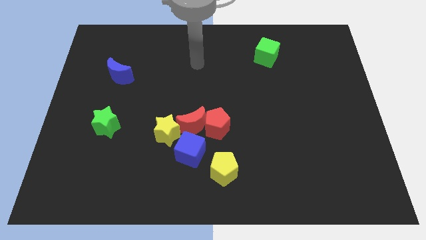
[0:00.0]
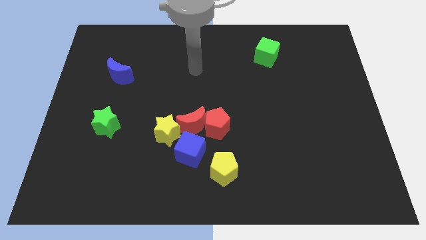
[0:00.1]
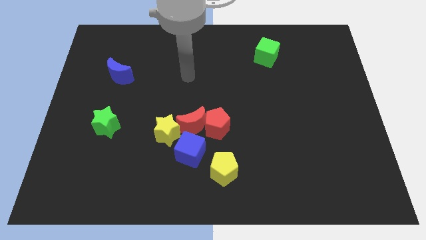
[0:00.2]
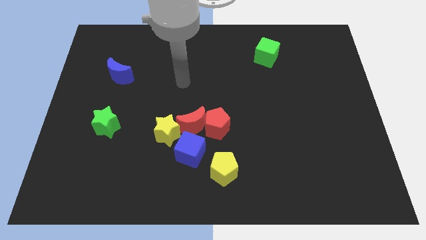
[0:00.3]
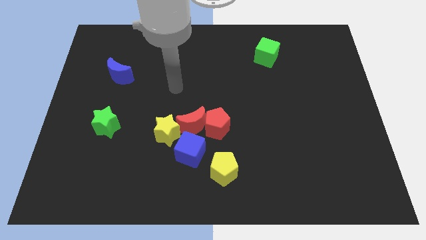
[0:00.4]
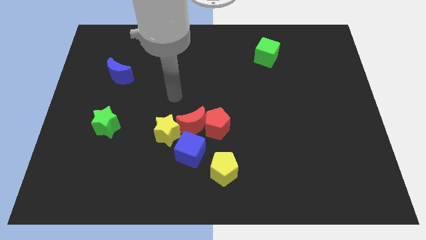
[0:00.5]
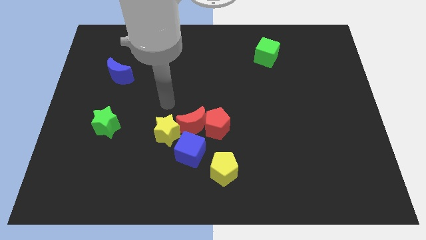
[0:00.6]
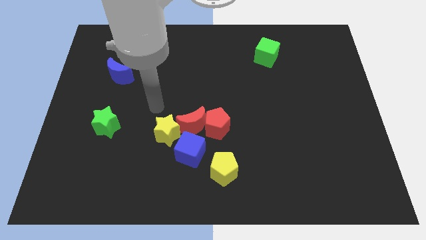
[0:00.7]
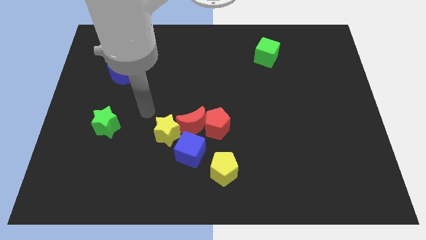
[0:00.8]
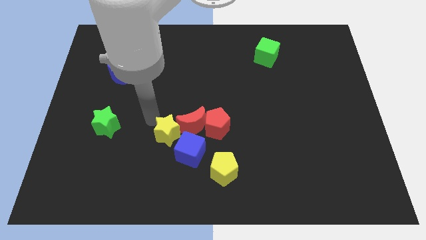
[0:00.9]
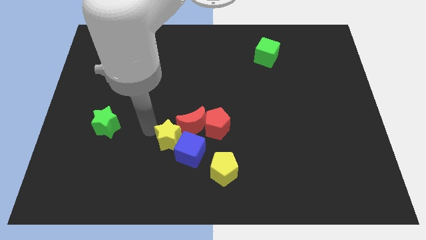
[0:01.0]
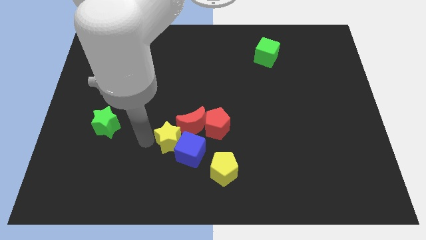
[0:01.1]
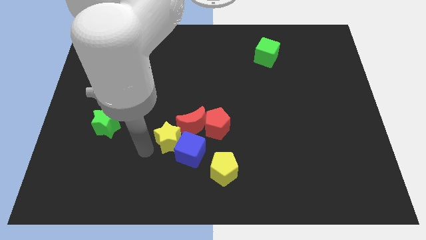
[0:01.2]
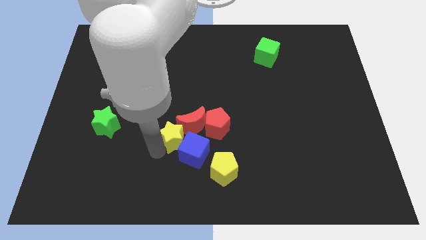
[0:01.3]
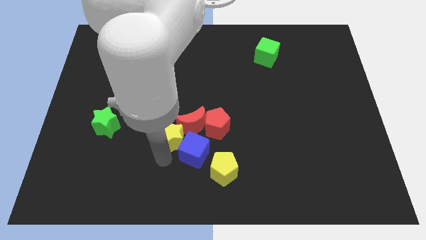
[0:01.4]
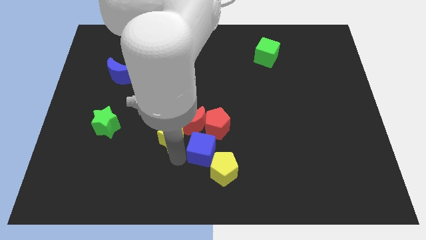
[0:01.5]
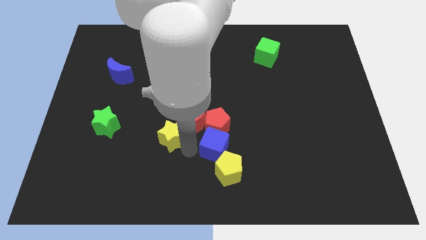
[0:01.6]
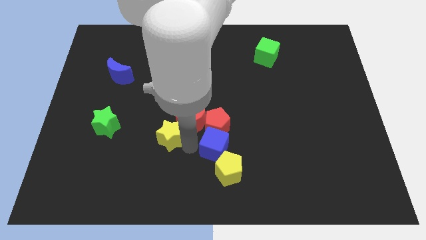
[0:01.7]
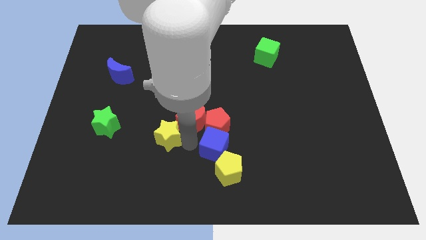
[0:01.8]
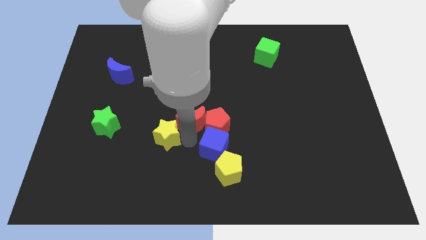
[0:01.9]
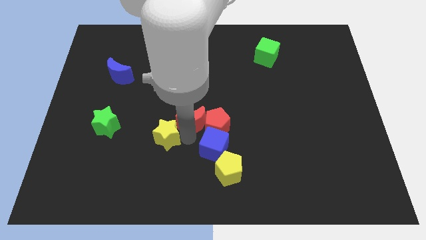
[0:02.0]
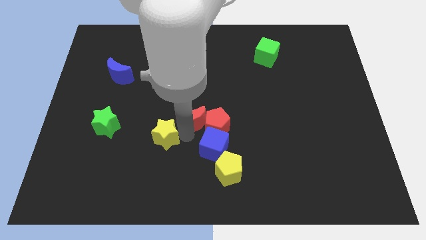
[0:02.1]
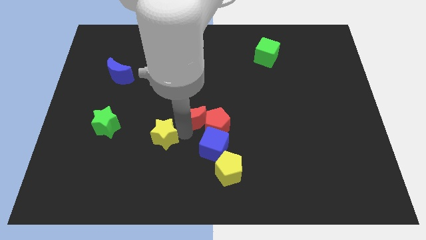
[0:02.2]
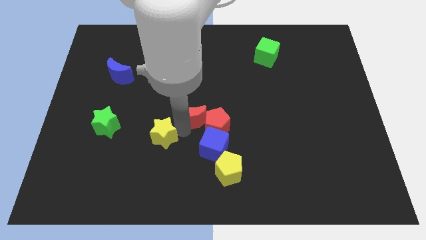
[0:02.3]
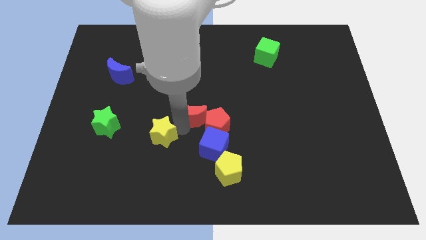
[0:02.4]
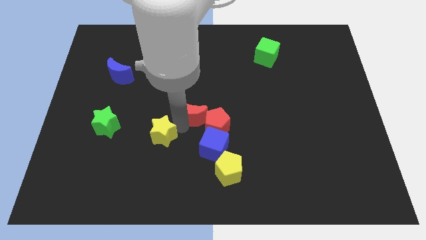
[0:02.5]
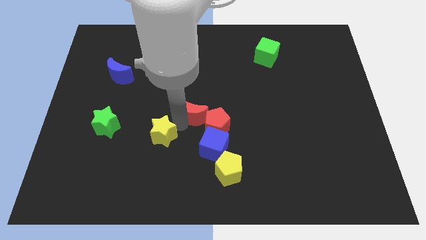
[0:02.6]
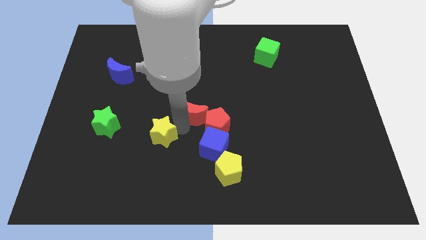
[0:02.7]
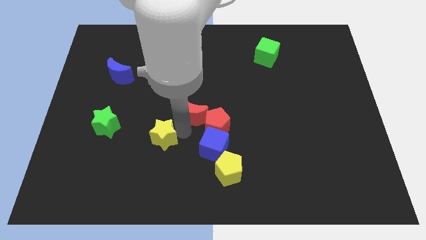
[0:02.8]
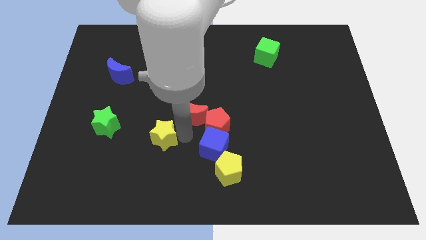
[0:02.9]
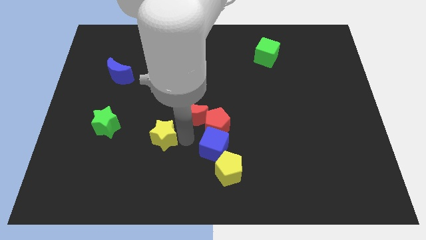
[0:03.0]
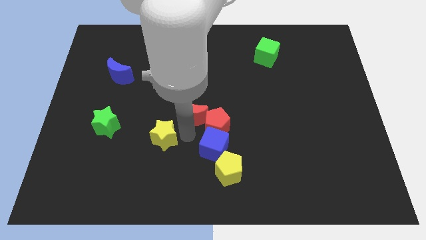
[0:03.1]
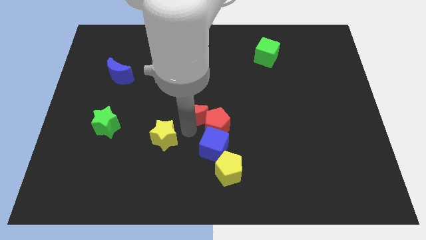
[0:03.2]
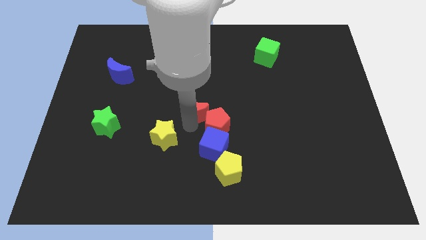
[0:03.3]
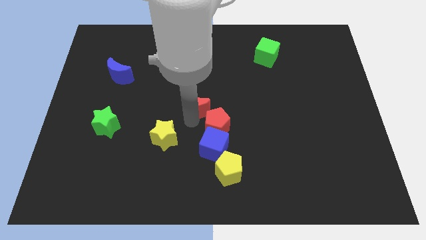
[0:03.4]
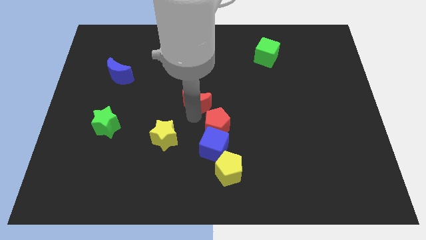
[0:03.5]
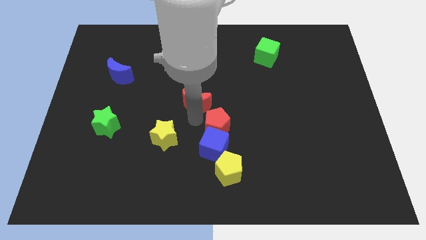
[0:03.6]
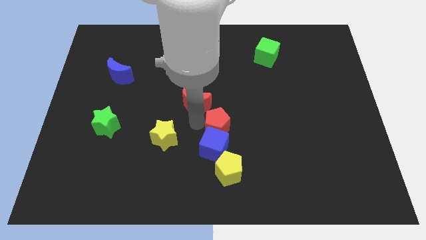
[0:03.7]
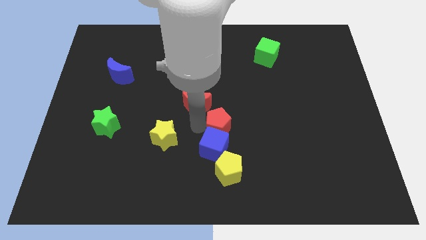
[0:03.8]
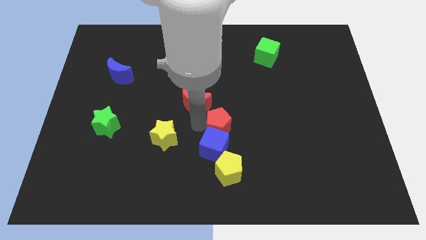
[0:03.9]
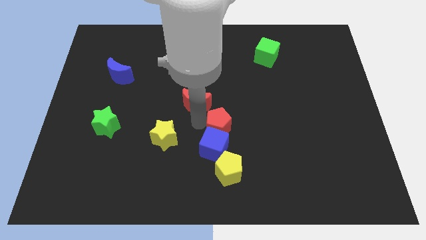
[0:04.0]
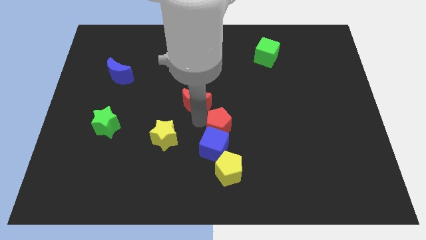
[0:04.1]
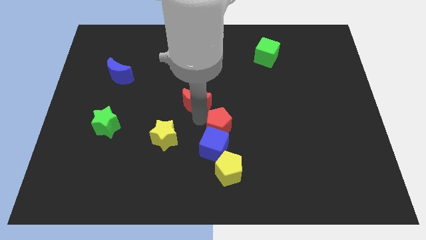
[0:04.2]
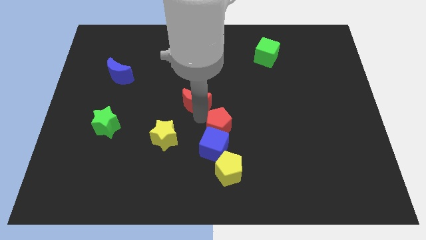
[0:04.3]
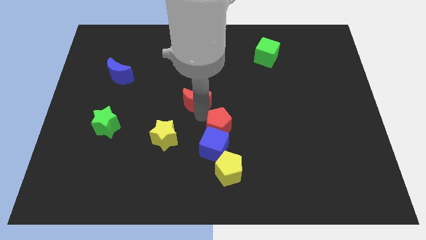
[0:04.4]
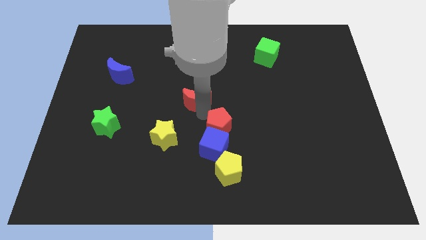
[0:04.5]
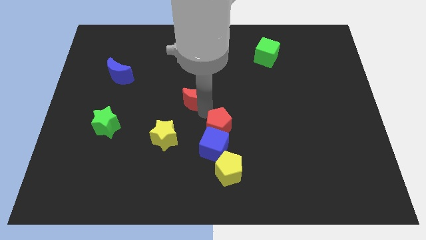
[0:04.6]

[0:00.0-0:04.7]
pull the red moon apart from the group of blocks

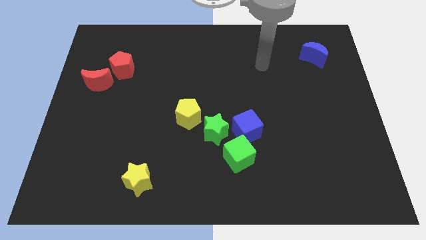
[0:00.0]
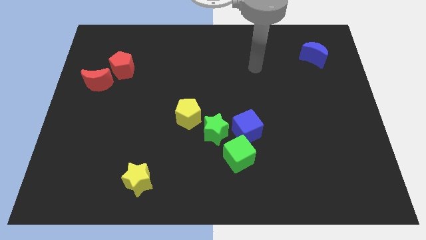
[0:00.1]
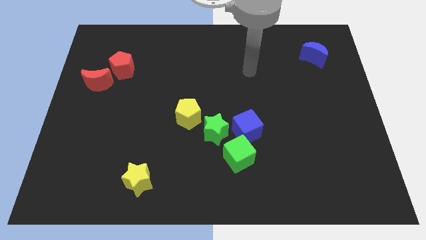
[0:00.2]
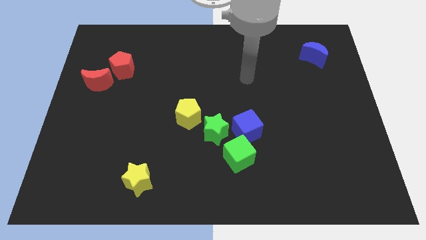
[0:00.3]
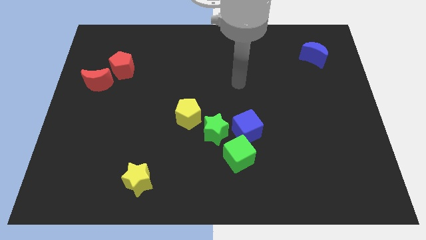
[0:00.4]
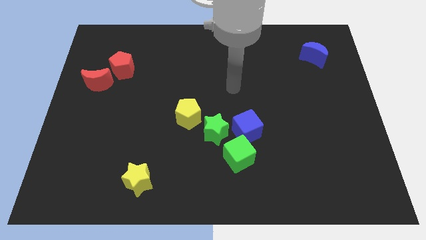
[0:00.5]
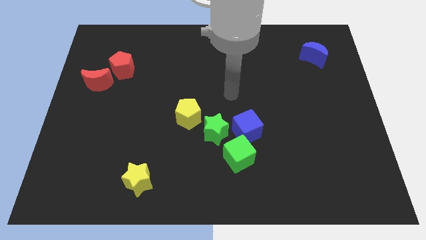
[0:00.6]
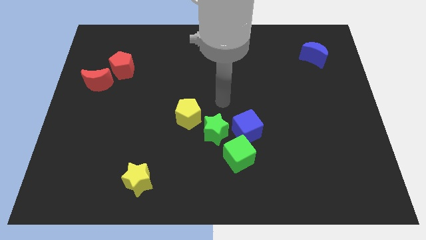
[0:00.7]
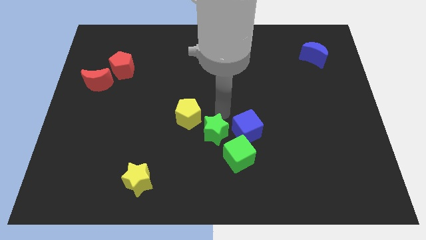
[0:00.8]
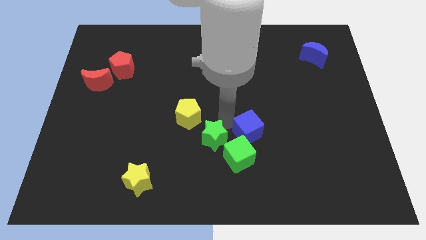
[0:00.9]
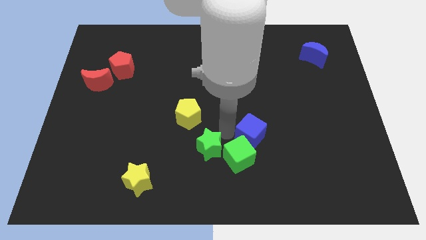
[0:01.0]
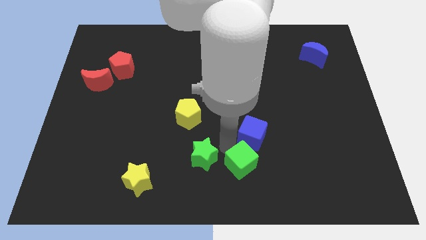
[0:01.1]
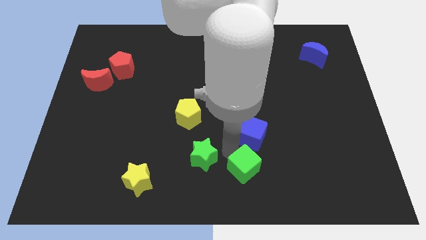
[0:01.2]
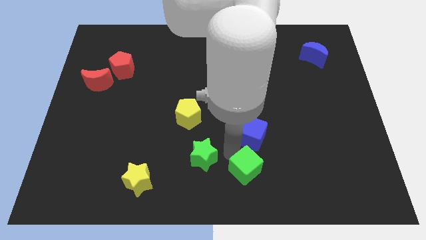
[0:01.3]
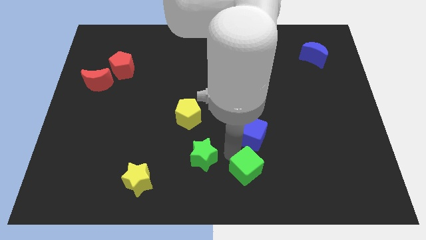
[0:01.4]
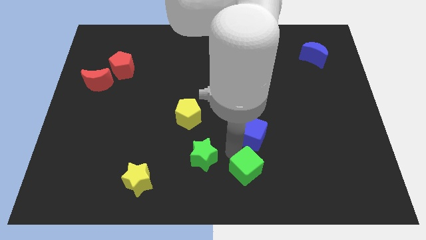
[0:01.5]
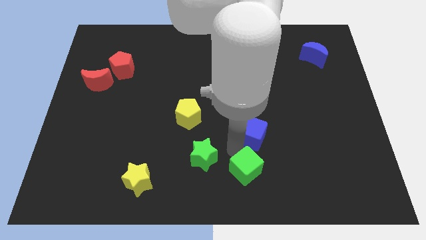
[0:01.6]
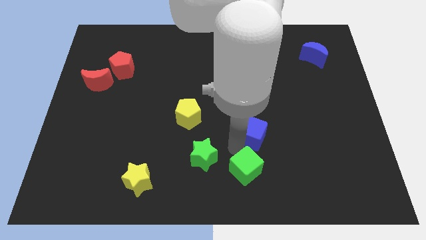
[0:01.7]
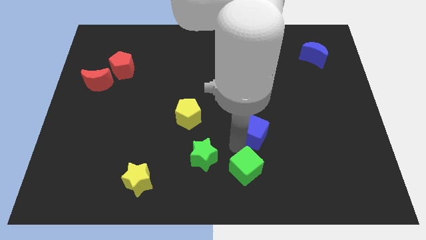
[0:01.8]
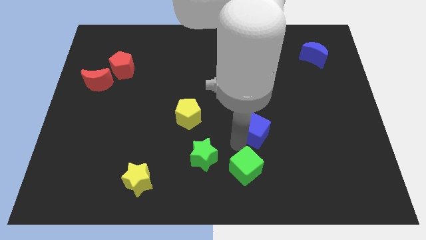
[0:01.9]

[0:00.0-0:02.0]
move the blue cube away from the green cube and green star

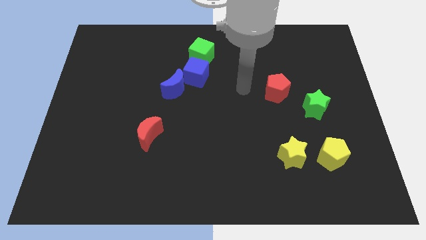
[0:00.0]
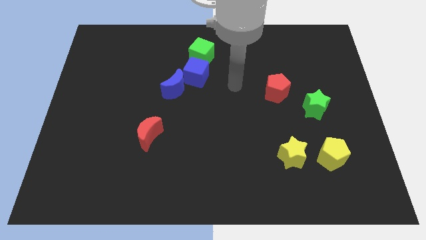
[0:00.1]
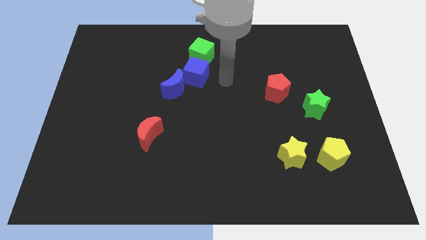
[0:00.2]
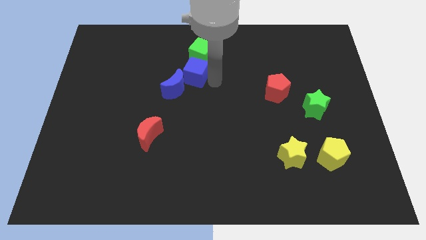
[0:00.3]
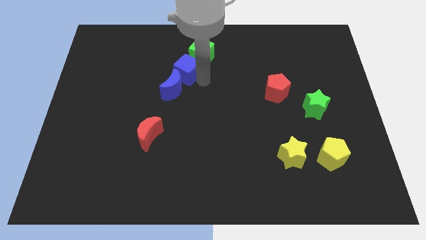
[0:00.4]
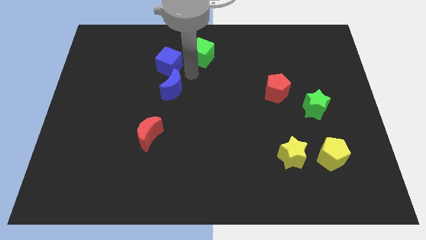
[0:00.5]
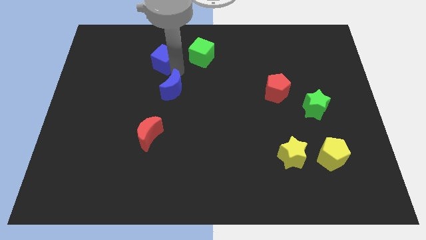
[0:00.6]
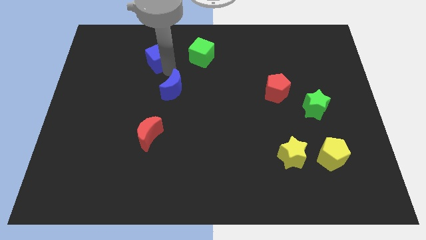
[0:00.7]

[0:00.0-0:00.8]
move the blue moon away from the blue cube

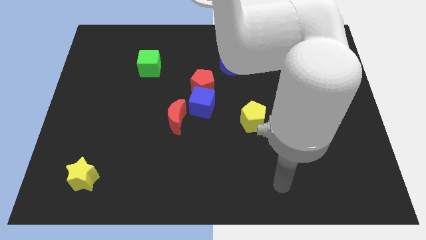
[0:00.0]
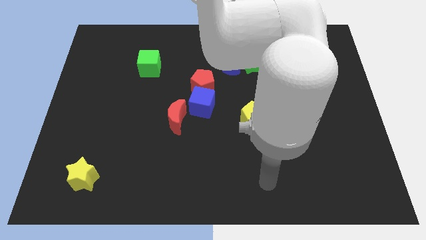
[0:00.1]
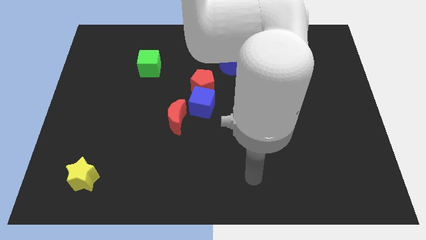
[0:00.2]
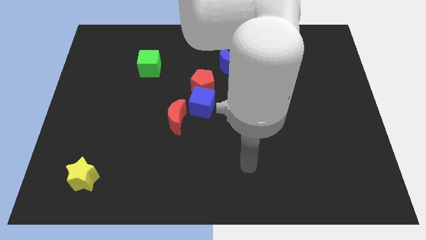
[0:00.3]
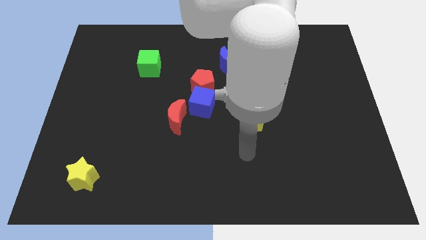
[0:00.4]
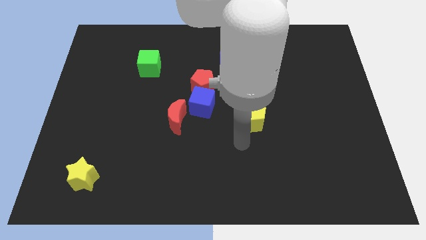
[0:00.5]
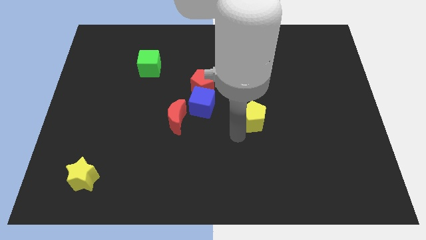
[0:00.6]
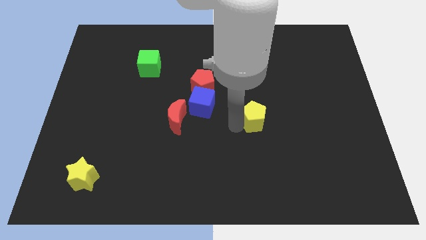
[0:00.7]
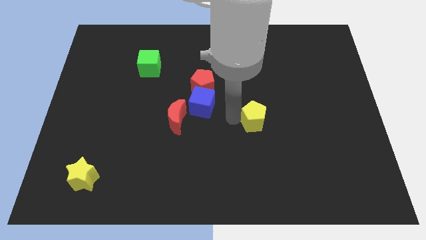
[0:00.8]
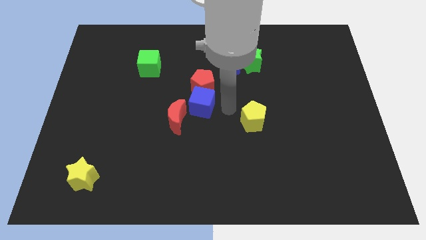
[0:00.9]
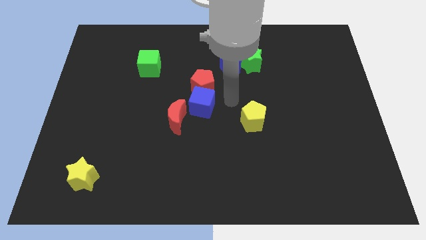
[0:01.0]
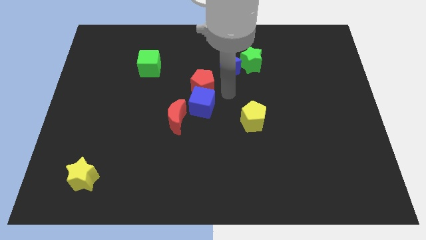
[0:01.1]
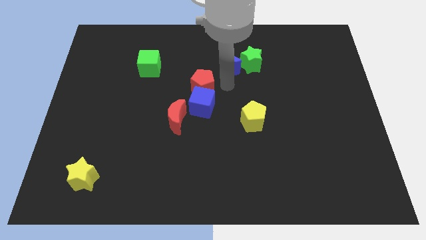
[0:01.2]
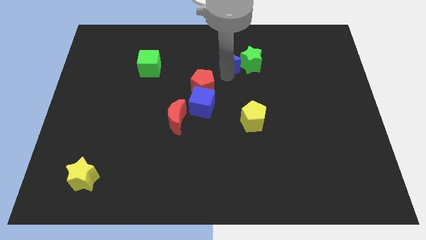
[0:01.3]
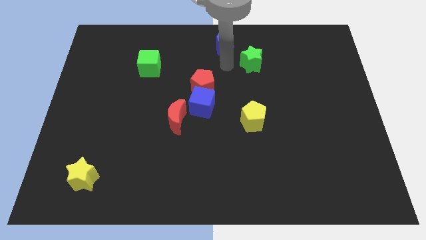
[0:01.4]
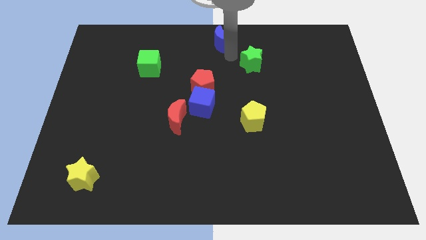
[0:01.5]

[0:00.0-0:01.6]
separate the green star from the blue moon

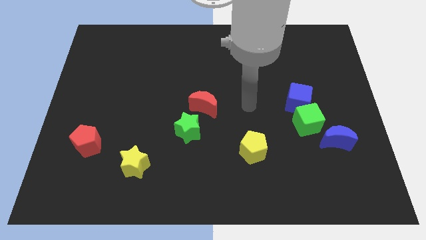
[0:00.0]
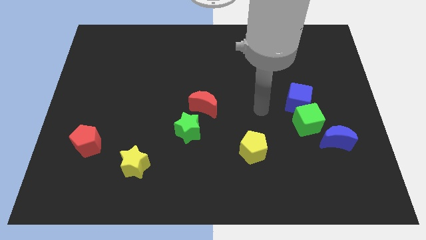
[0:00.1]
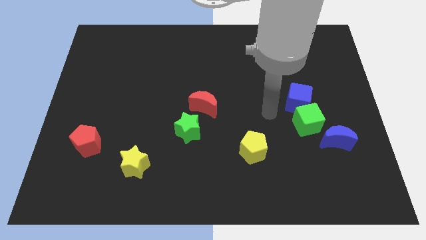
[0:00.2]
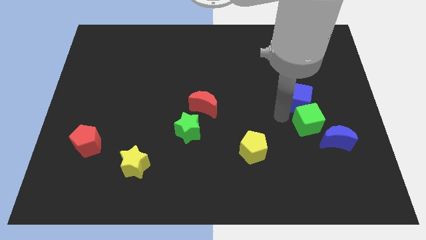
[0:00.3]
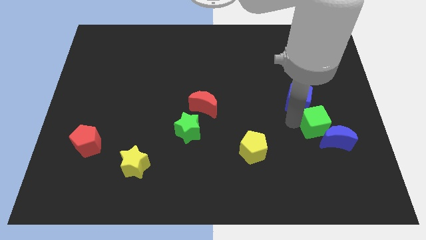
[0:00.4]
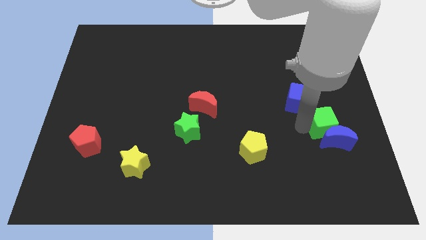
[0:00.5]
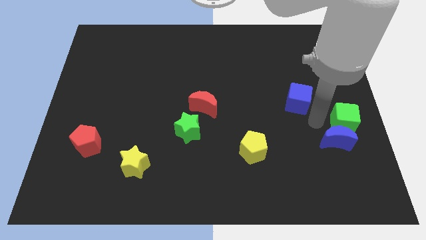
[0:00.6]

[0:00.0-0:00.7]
separate the blue cube from the green cube
